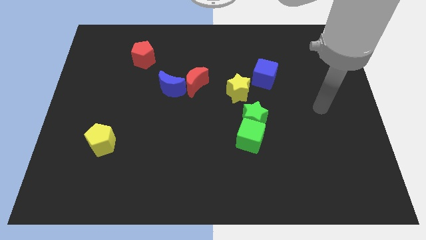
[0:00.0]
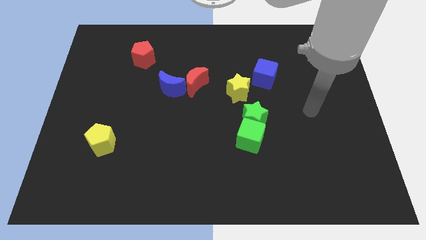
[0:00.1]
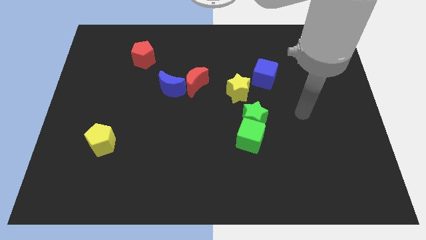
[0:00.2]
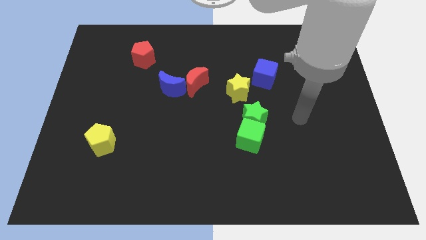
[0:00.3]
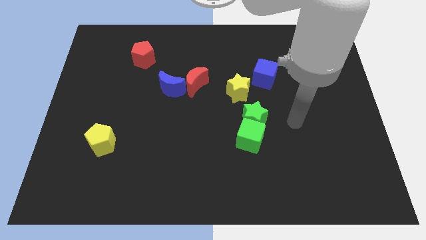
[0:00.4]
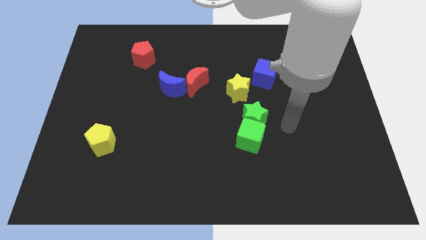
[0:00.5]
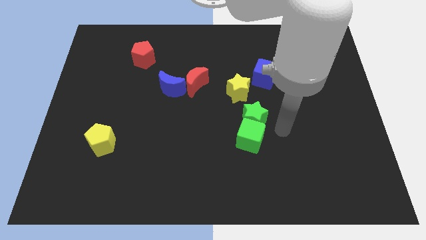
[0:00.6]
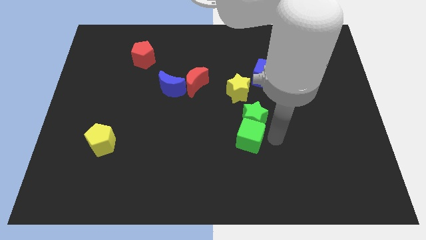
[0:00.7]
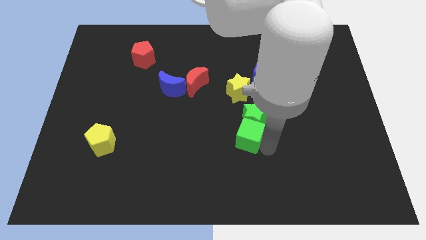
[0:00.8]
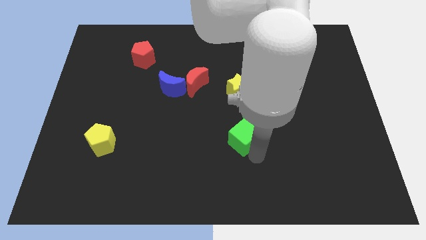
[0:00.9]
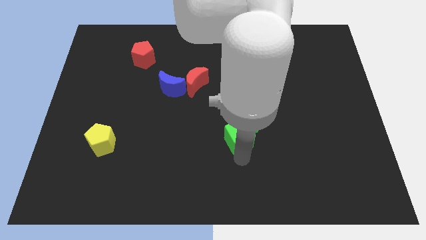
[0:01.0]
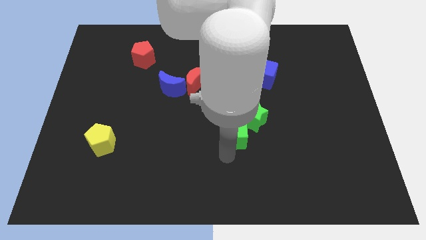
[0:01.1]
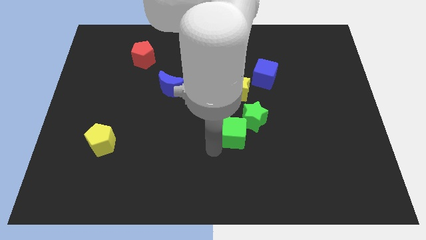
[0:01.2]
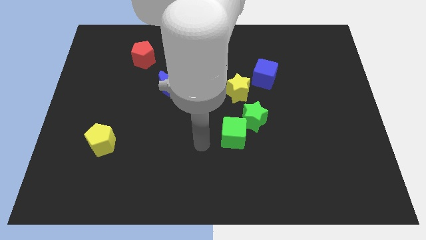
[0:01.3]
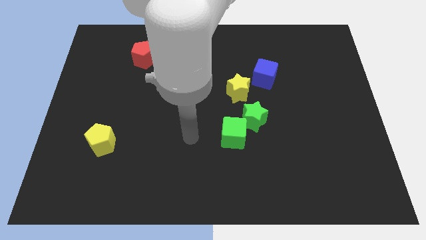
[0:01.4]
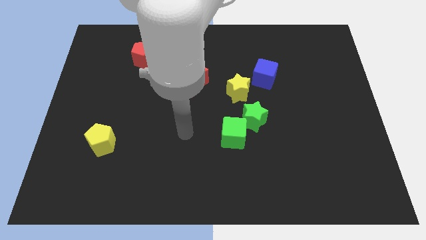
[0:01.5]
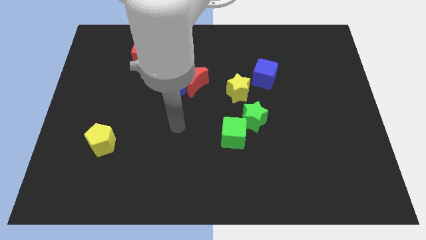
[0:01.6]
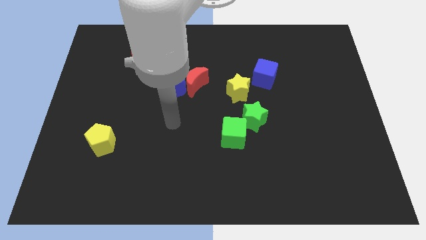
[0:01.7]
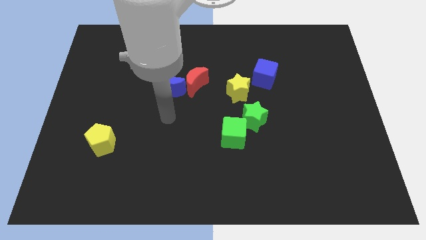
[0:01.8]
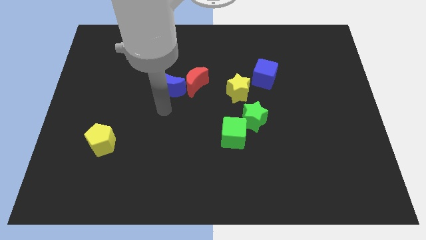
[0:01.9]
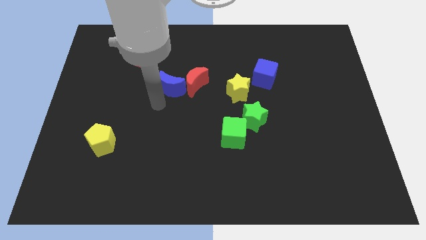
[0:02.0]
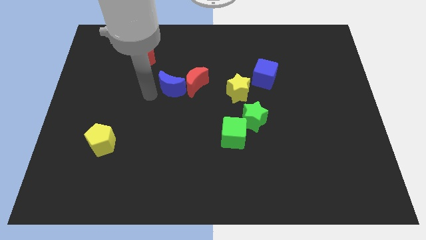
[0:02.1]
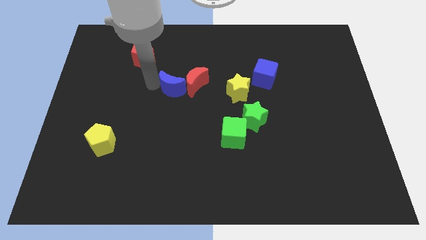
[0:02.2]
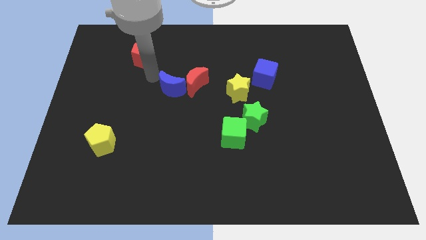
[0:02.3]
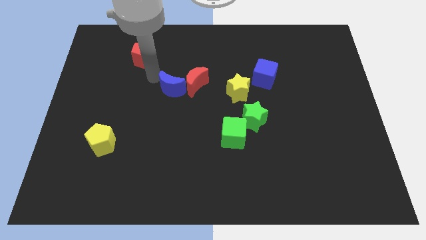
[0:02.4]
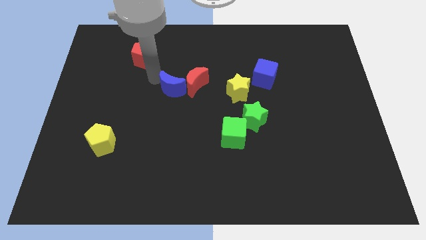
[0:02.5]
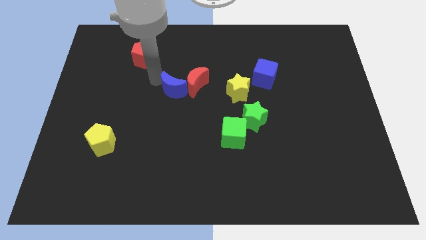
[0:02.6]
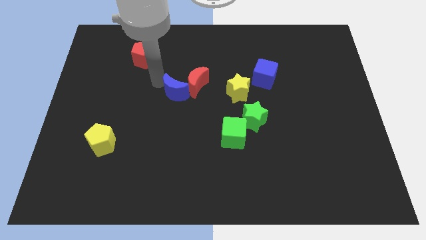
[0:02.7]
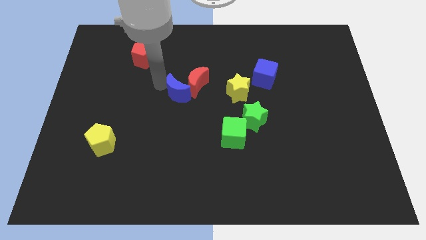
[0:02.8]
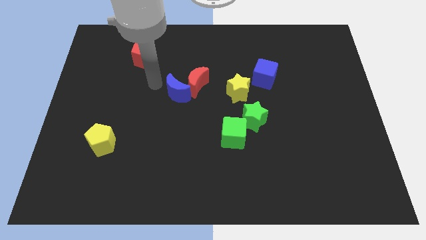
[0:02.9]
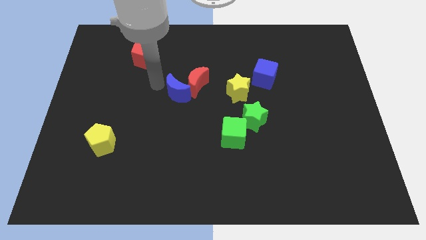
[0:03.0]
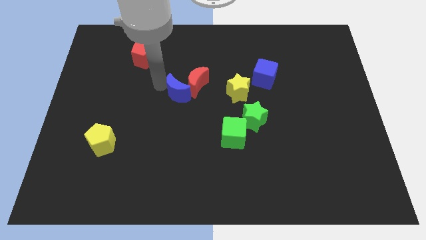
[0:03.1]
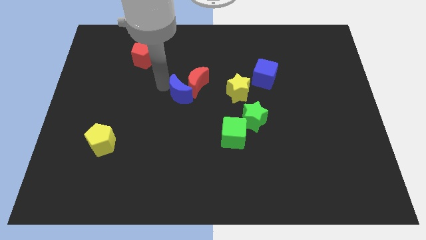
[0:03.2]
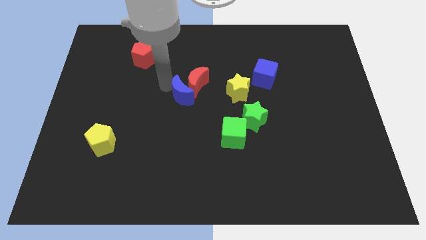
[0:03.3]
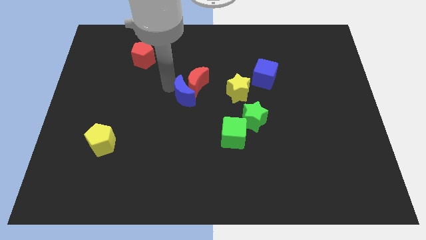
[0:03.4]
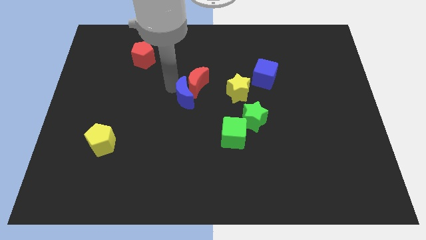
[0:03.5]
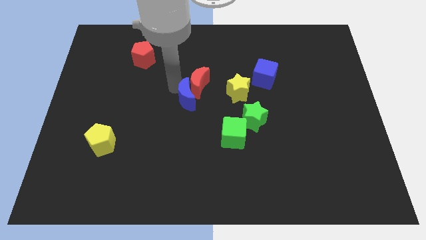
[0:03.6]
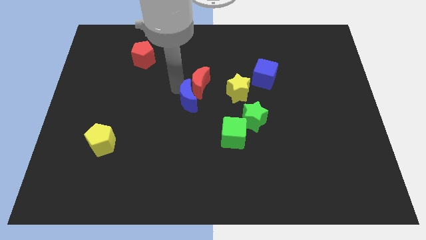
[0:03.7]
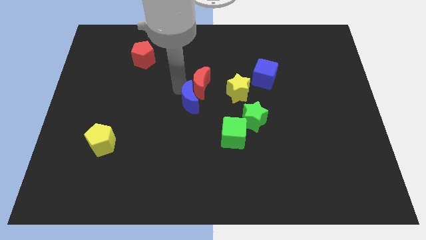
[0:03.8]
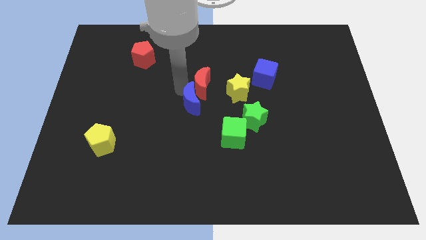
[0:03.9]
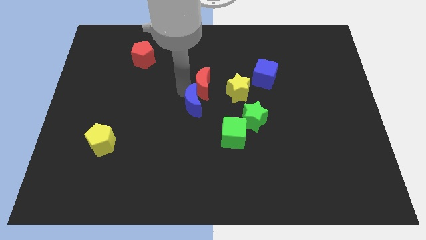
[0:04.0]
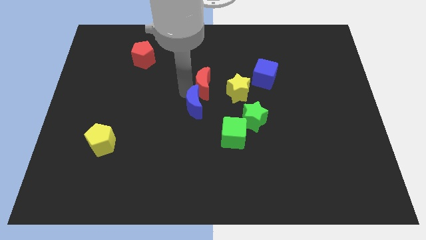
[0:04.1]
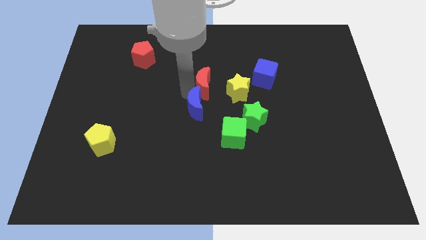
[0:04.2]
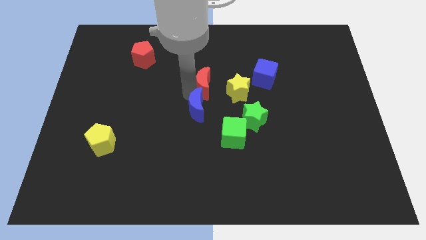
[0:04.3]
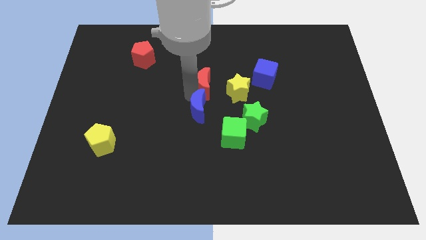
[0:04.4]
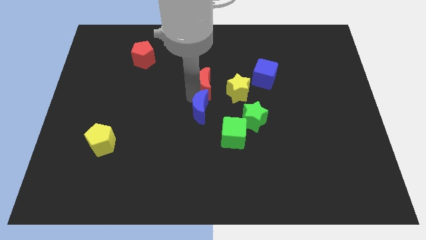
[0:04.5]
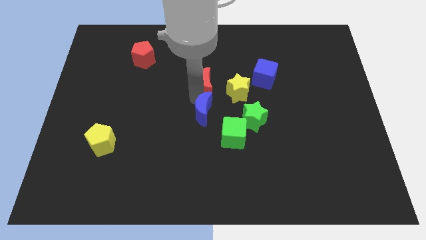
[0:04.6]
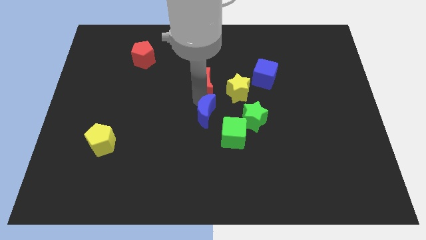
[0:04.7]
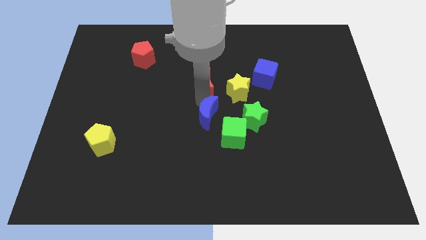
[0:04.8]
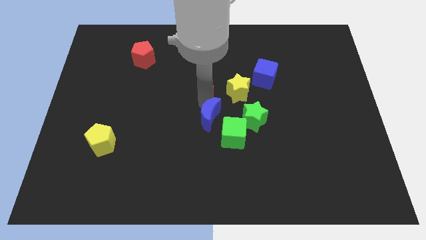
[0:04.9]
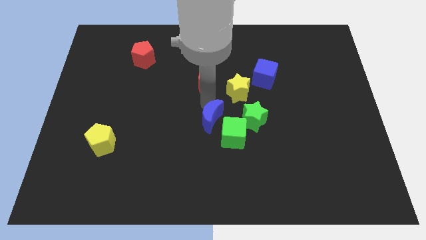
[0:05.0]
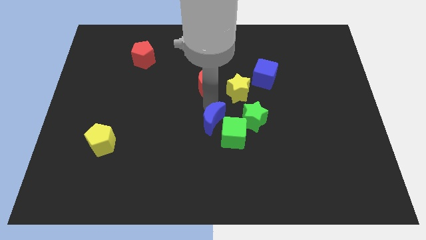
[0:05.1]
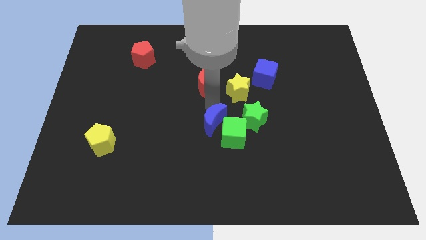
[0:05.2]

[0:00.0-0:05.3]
slide the blue moon towards the green cube
